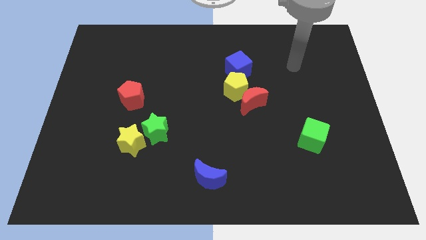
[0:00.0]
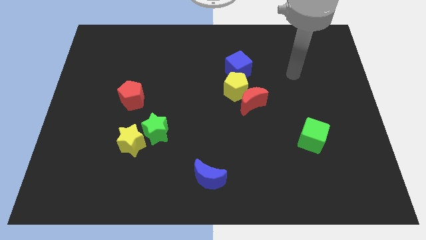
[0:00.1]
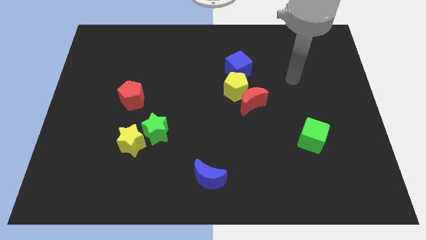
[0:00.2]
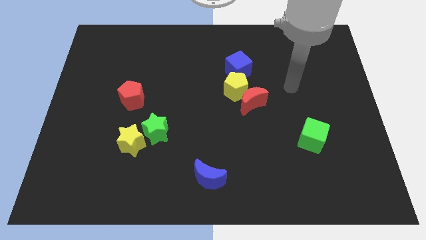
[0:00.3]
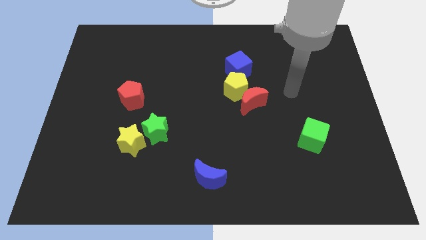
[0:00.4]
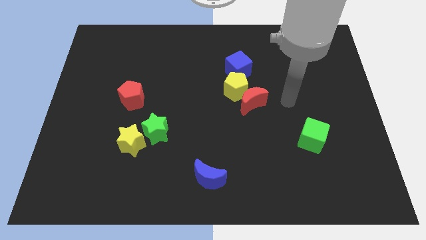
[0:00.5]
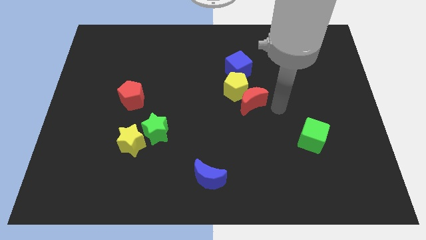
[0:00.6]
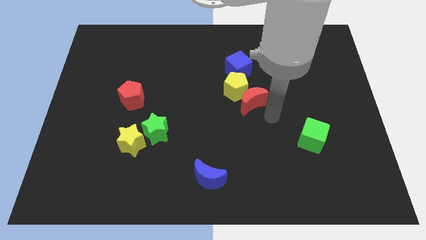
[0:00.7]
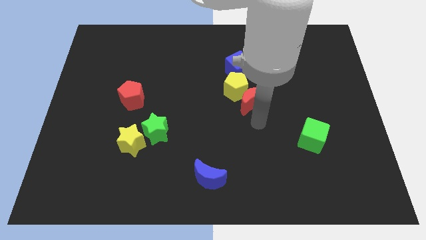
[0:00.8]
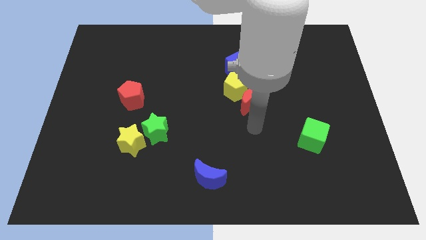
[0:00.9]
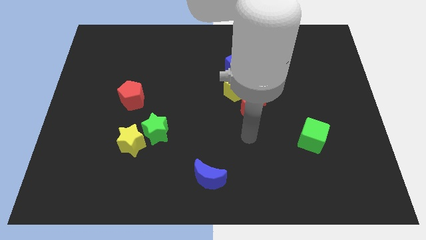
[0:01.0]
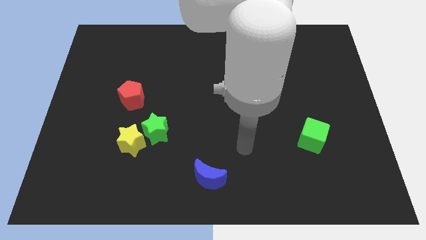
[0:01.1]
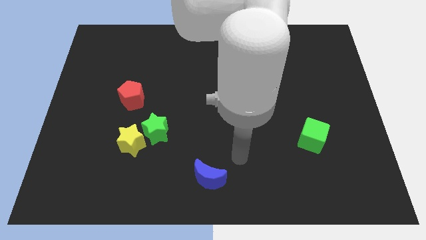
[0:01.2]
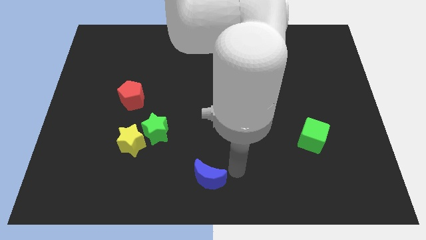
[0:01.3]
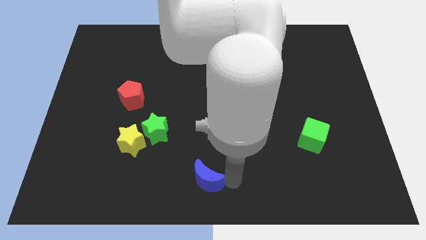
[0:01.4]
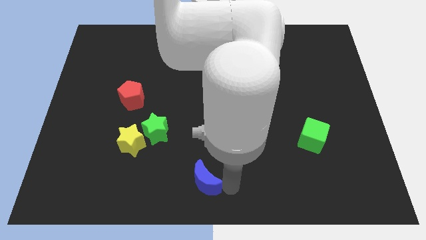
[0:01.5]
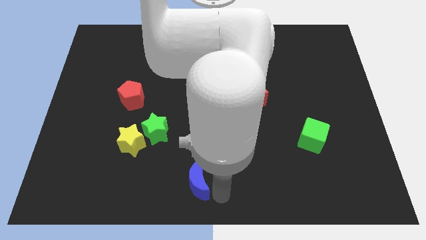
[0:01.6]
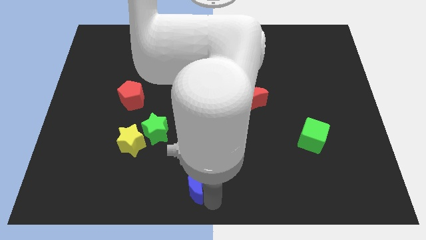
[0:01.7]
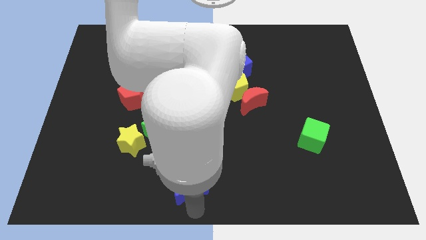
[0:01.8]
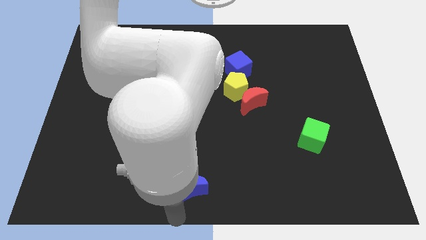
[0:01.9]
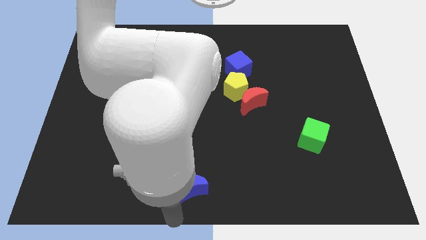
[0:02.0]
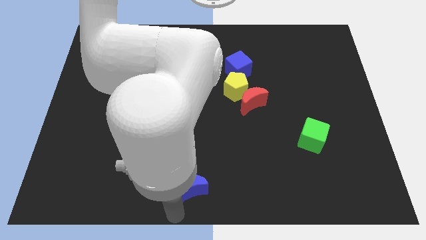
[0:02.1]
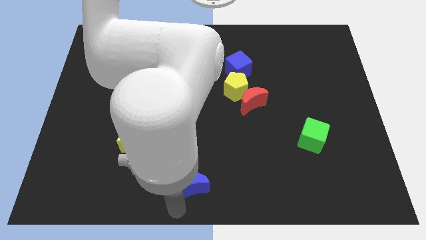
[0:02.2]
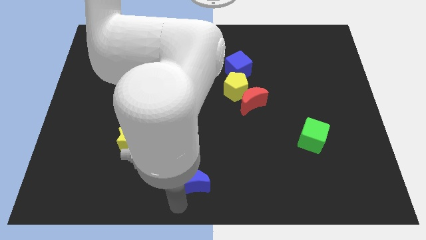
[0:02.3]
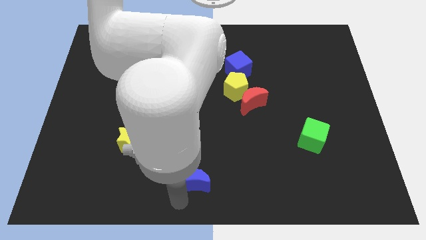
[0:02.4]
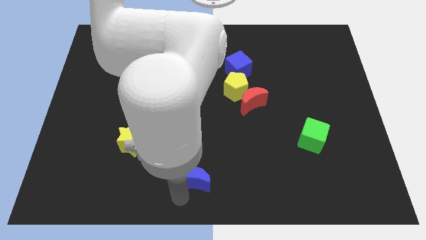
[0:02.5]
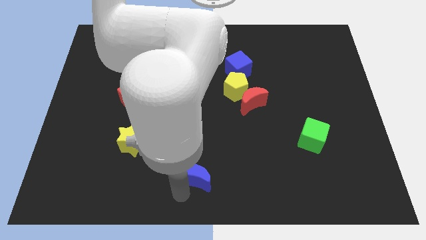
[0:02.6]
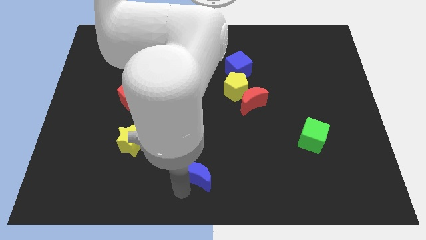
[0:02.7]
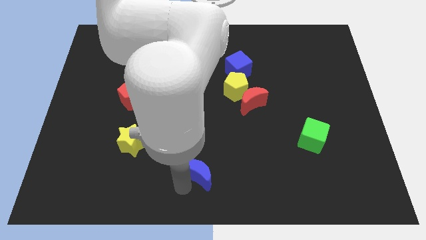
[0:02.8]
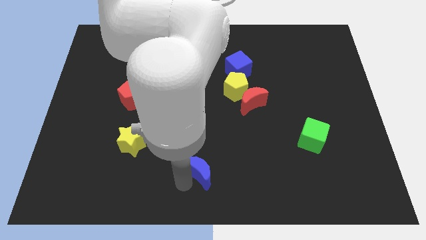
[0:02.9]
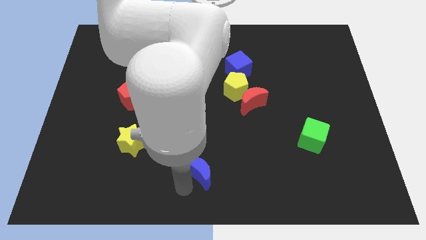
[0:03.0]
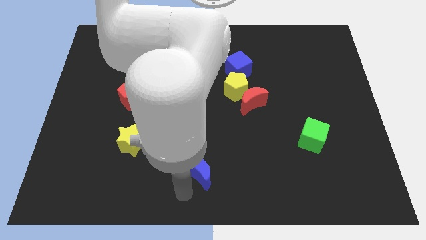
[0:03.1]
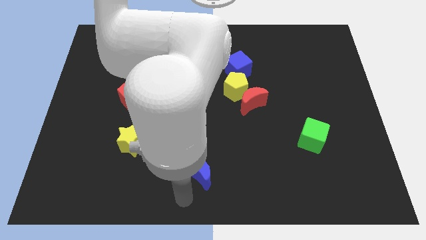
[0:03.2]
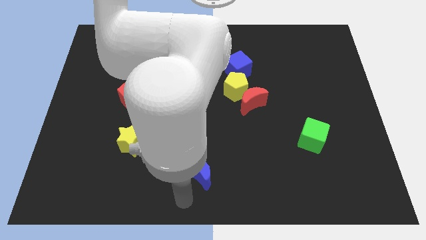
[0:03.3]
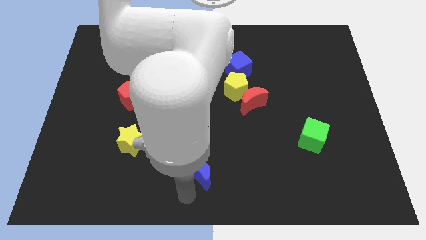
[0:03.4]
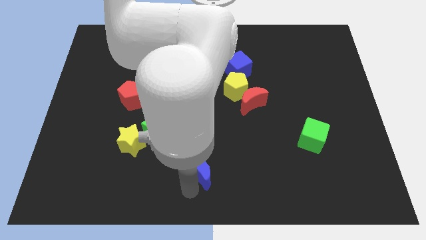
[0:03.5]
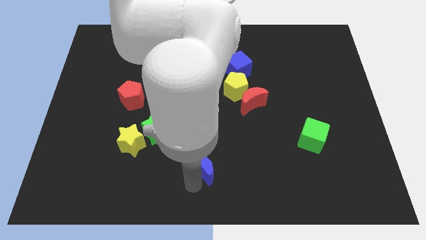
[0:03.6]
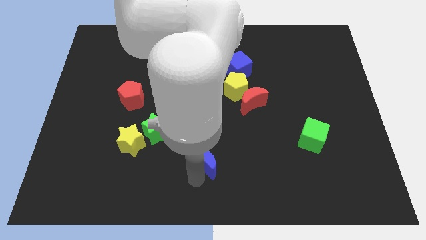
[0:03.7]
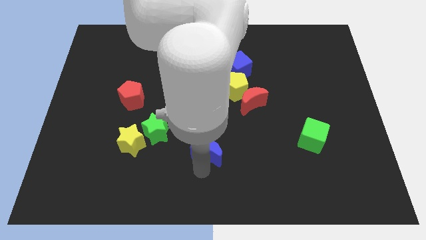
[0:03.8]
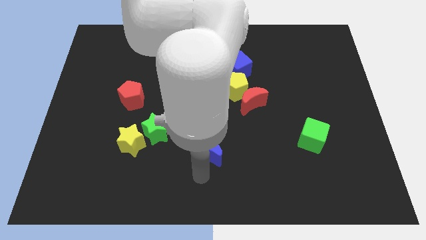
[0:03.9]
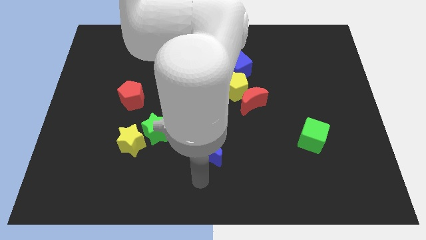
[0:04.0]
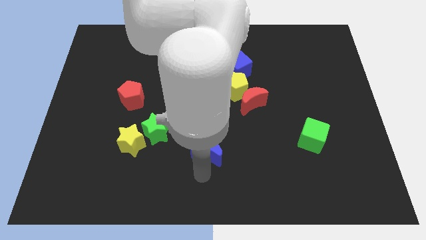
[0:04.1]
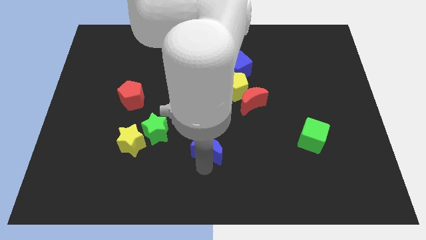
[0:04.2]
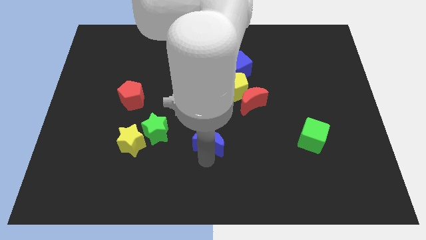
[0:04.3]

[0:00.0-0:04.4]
move the blue moon up a little bit

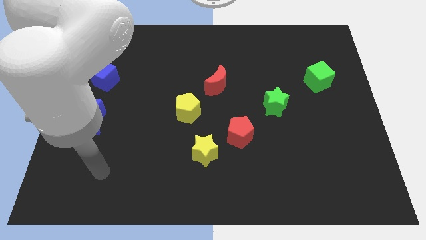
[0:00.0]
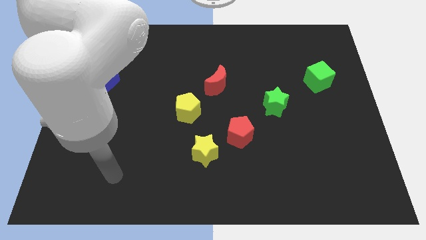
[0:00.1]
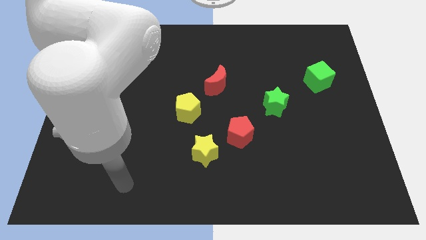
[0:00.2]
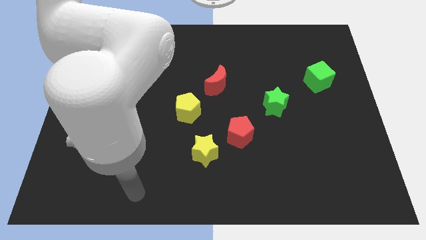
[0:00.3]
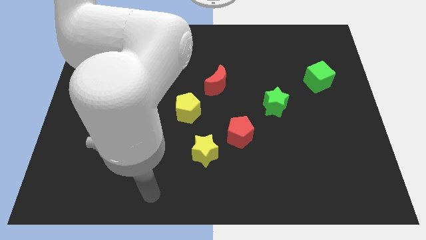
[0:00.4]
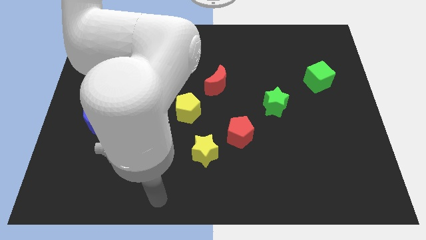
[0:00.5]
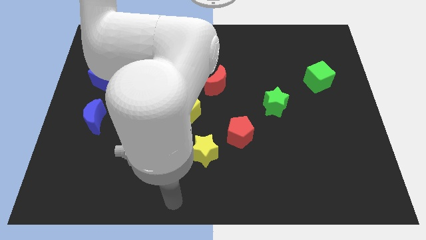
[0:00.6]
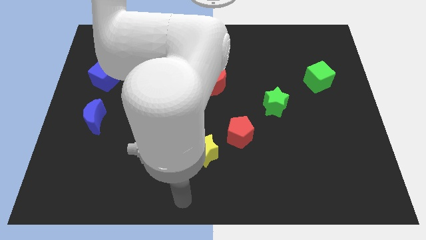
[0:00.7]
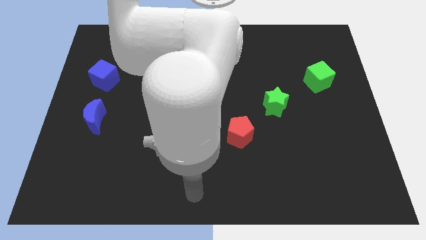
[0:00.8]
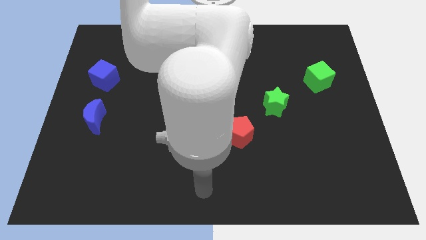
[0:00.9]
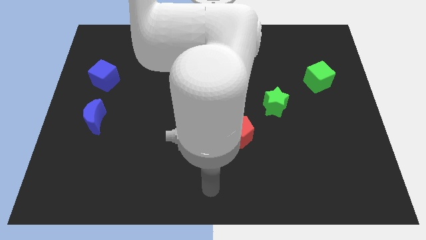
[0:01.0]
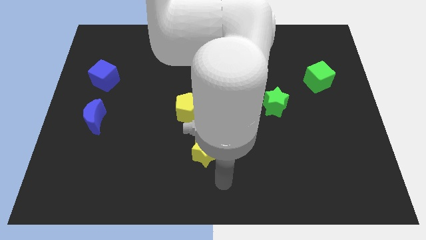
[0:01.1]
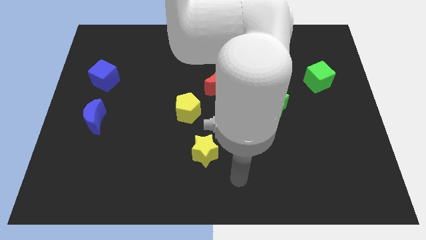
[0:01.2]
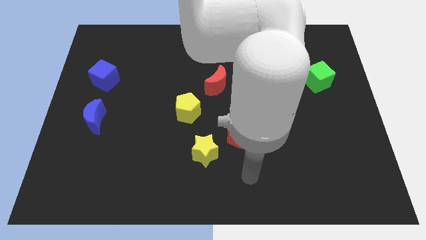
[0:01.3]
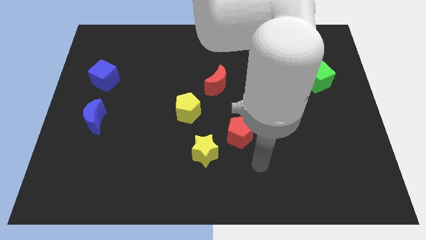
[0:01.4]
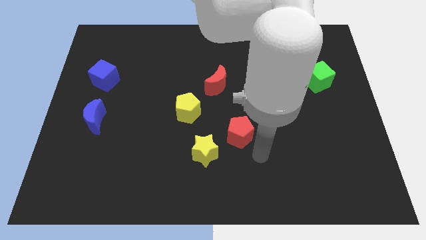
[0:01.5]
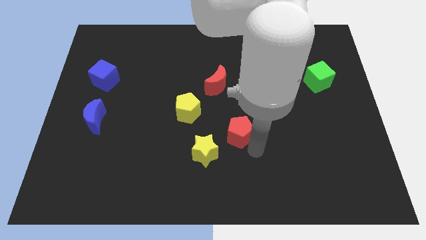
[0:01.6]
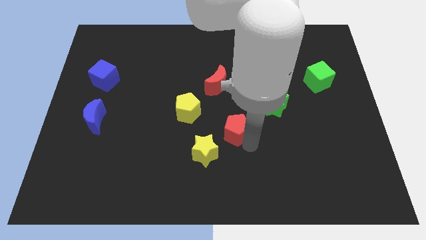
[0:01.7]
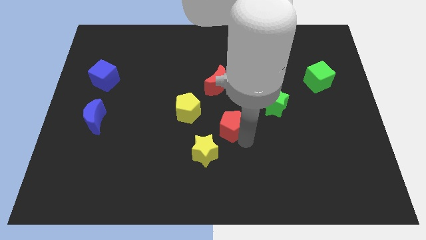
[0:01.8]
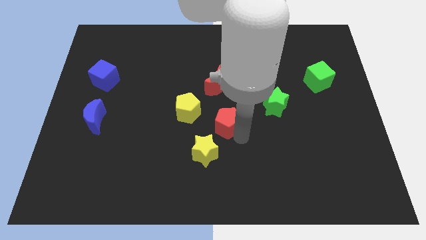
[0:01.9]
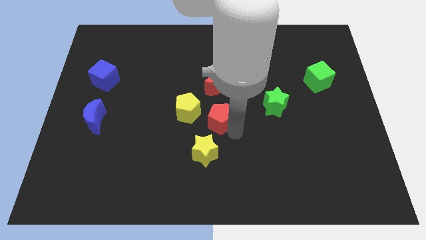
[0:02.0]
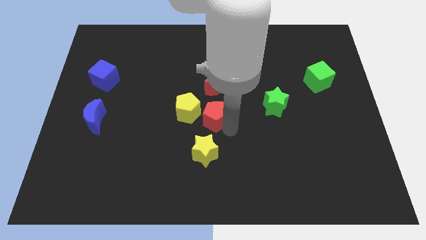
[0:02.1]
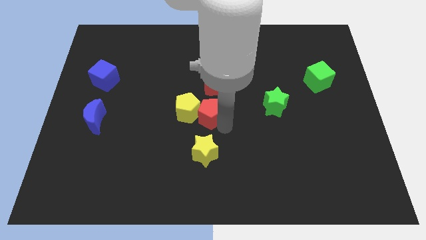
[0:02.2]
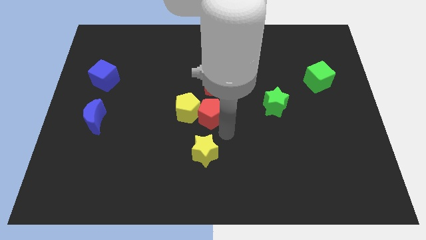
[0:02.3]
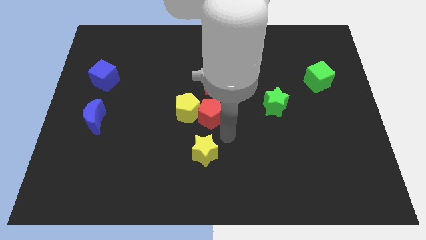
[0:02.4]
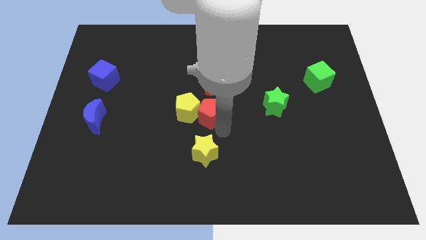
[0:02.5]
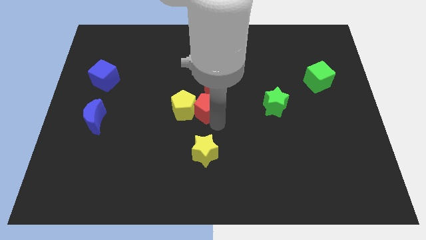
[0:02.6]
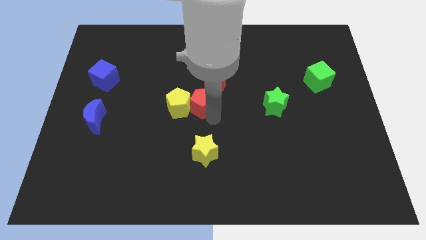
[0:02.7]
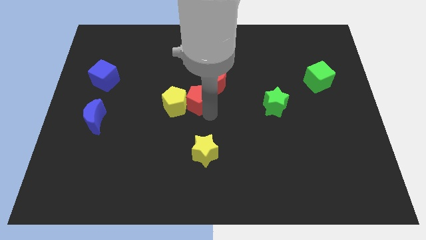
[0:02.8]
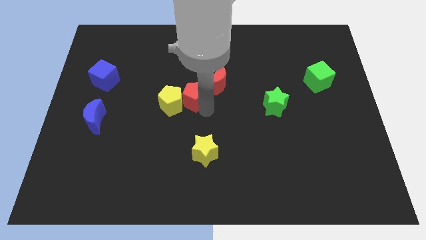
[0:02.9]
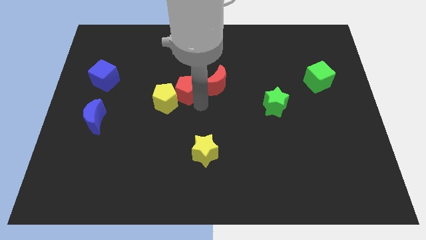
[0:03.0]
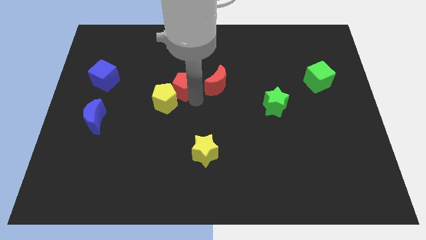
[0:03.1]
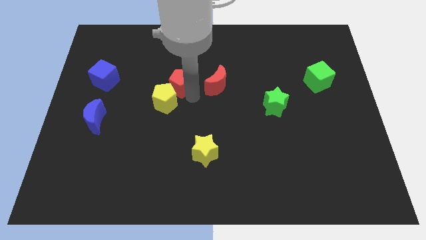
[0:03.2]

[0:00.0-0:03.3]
push the red pentagon upwards and then to the left

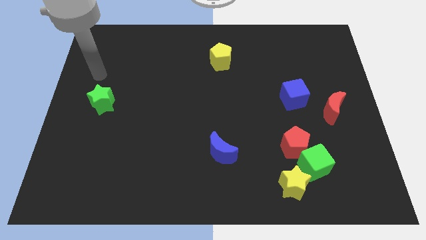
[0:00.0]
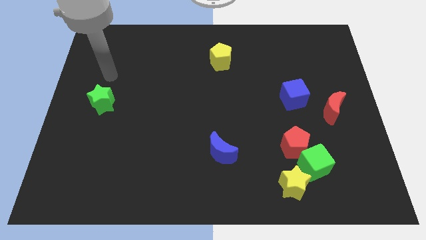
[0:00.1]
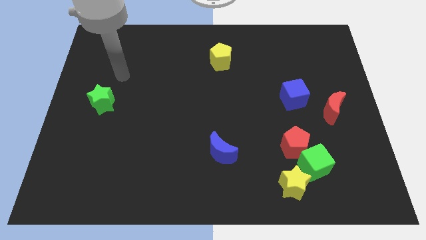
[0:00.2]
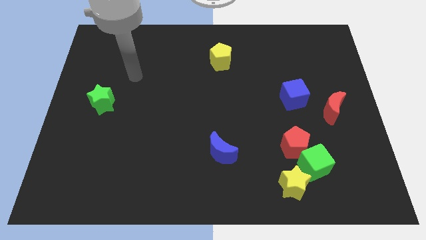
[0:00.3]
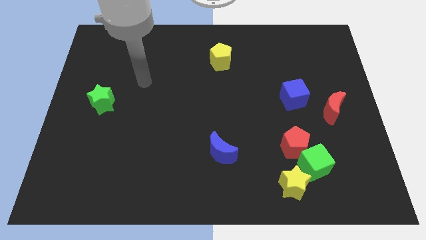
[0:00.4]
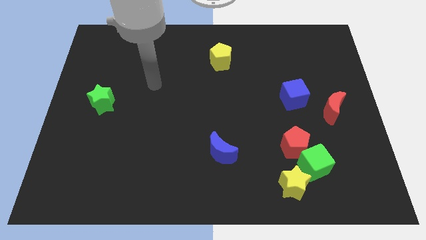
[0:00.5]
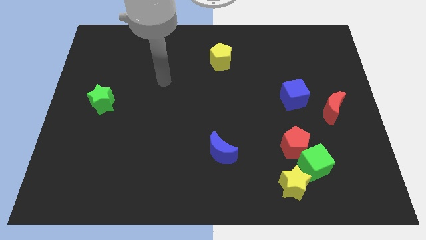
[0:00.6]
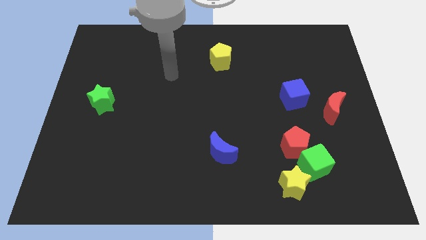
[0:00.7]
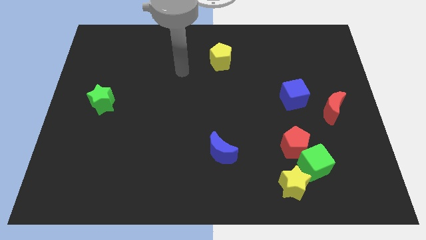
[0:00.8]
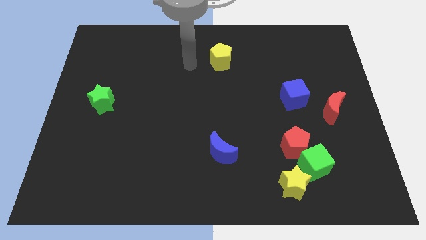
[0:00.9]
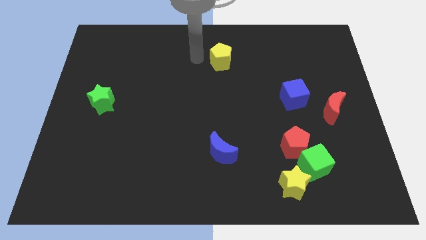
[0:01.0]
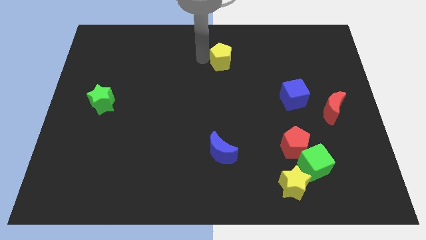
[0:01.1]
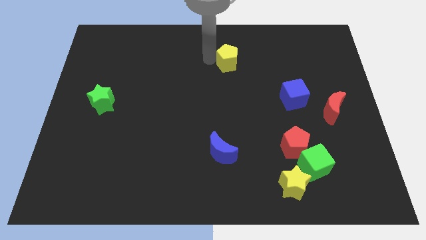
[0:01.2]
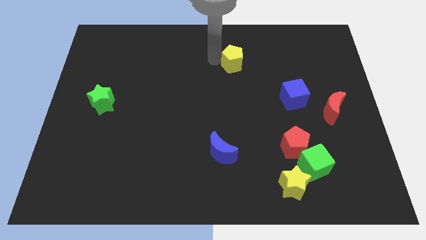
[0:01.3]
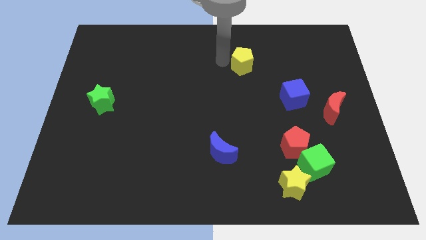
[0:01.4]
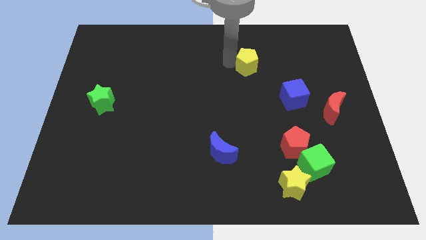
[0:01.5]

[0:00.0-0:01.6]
push the yellow pentagon a little bit right
